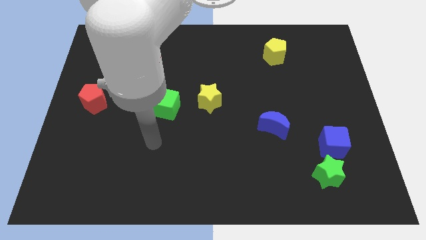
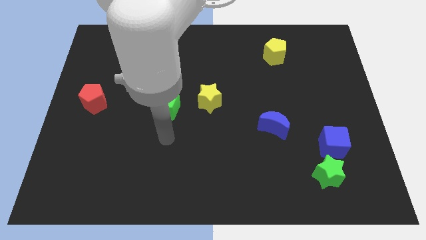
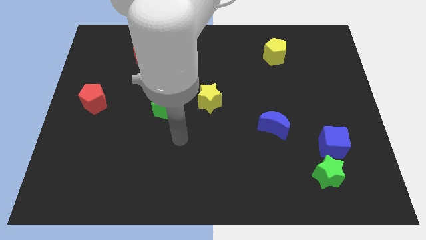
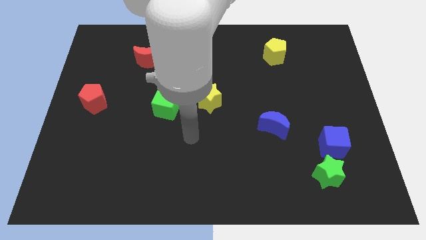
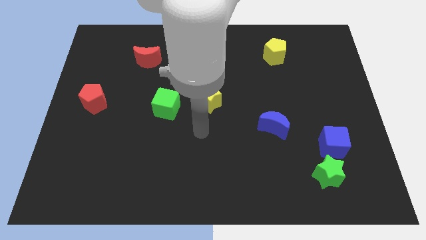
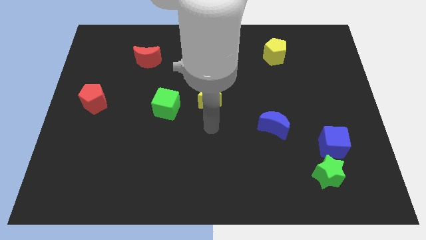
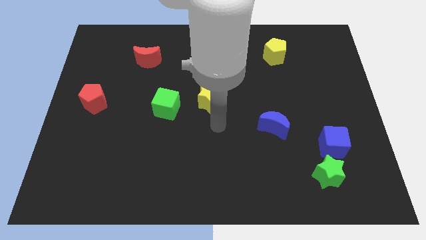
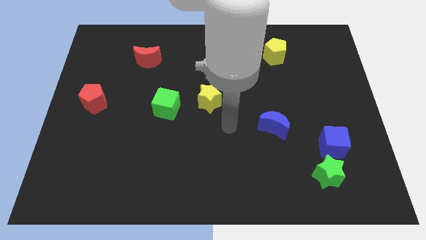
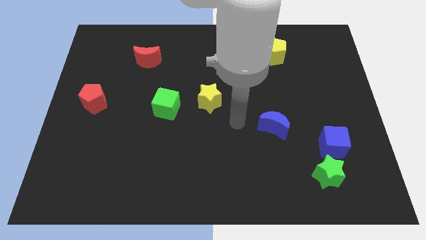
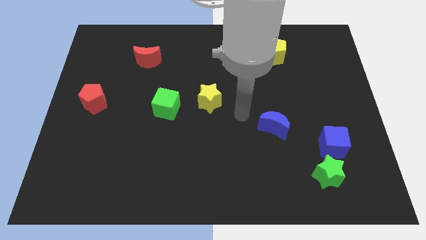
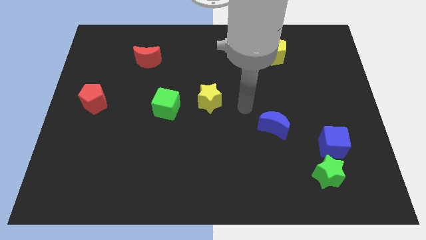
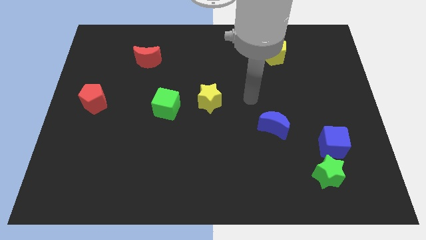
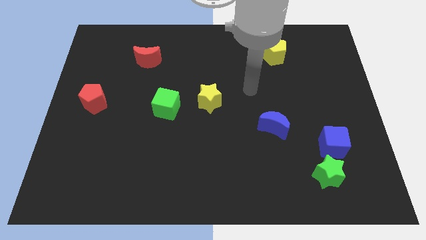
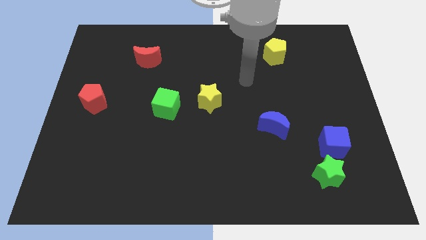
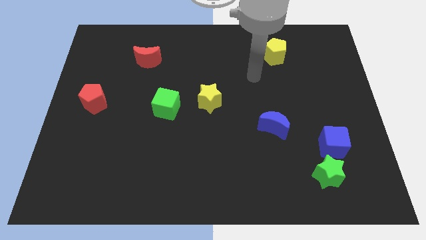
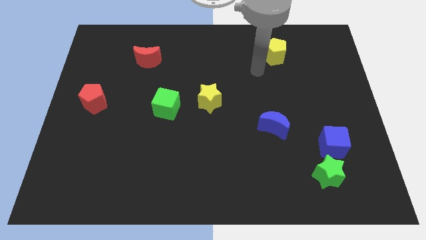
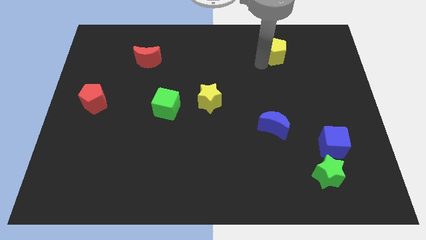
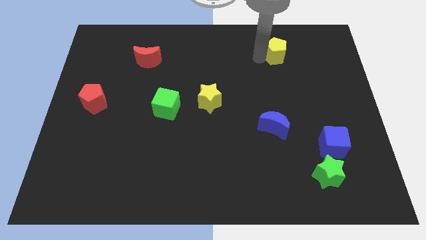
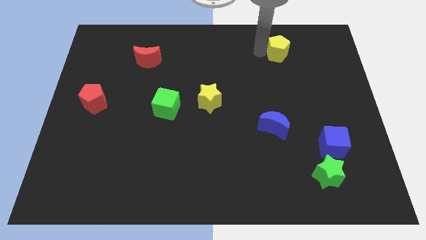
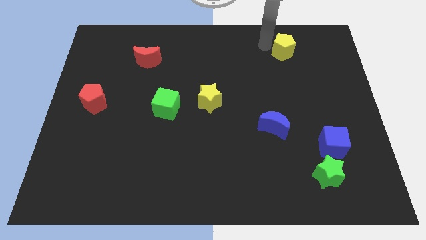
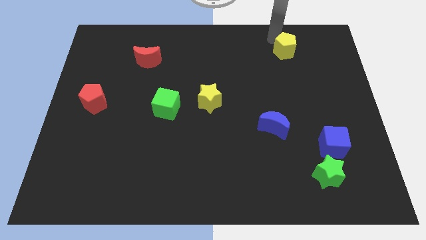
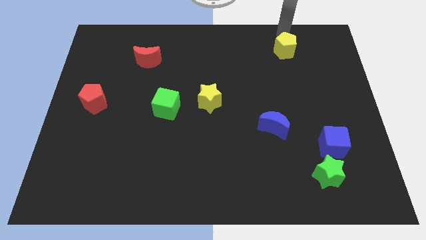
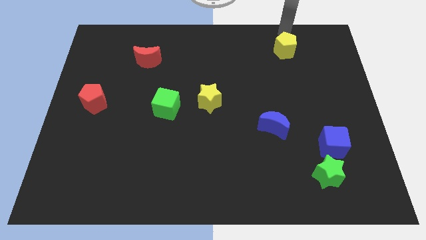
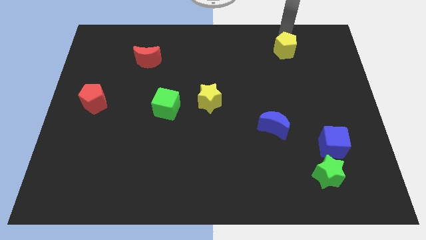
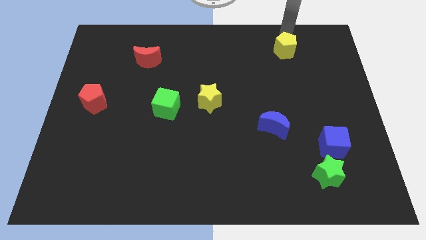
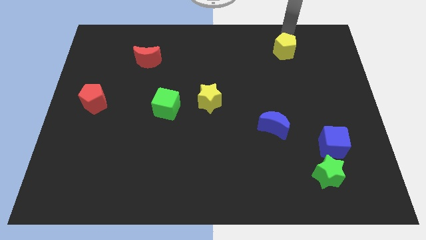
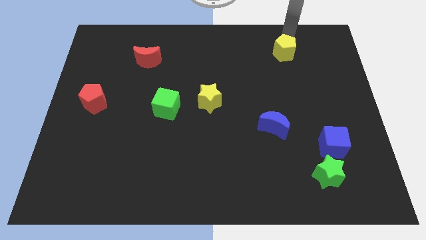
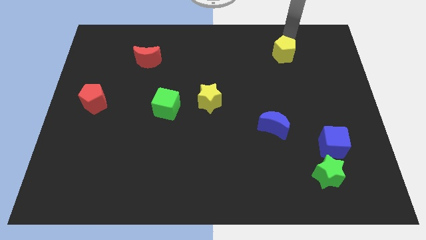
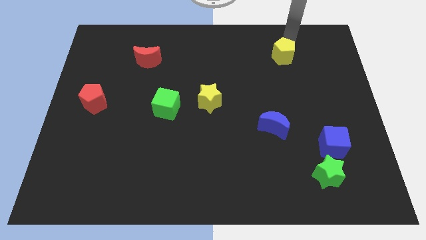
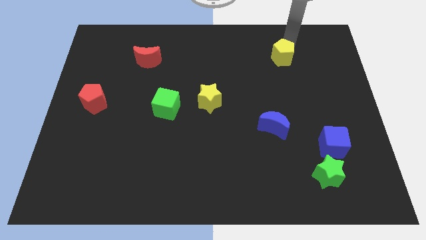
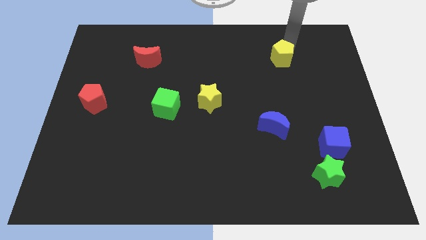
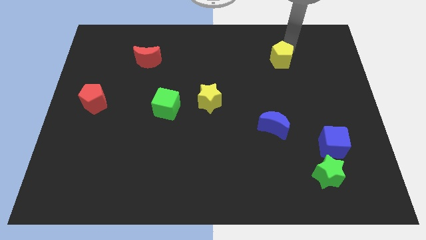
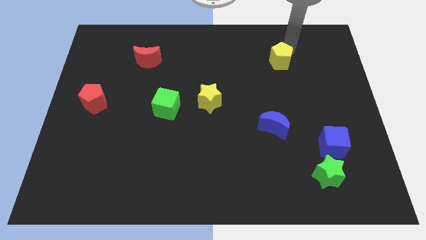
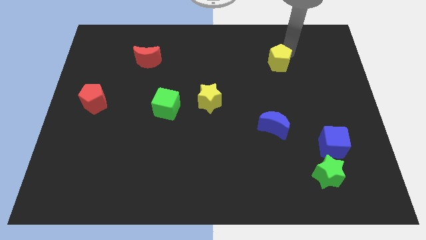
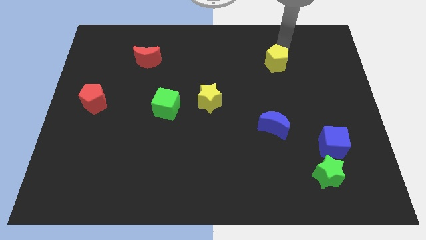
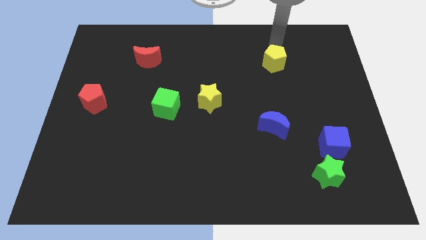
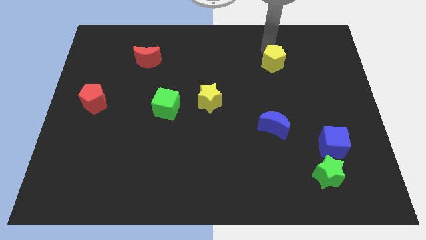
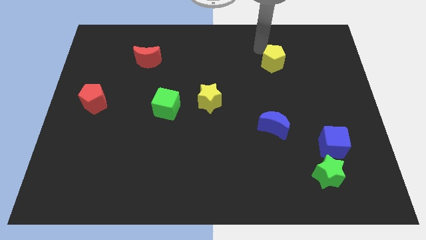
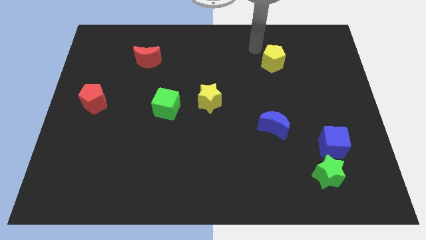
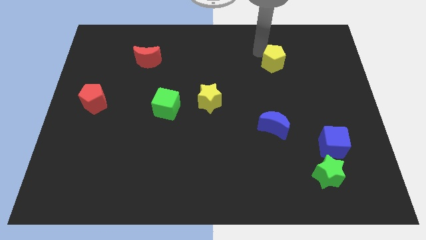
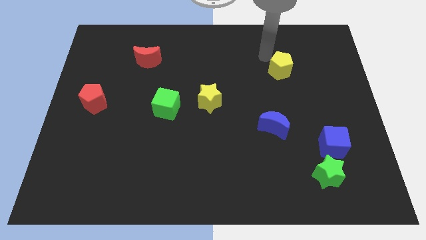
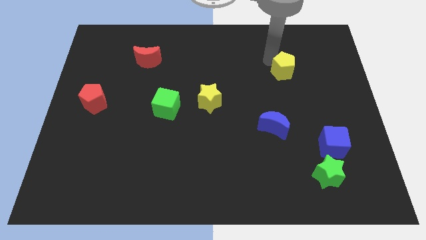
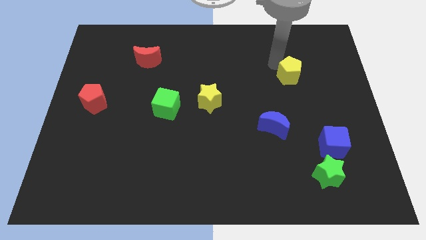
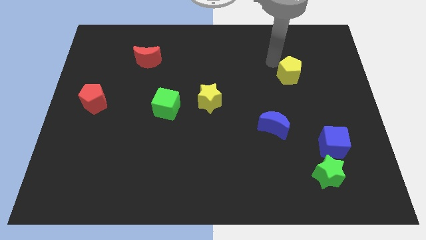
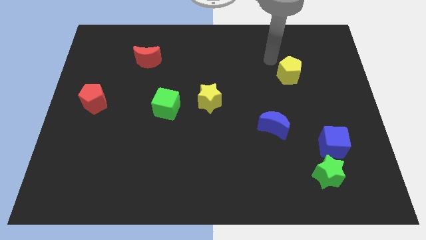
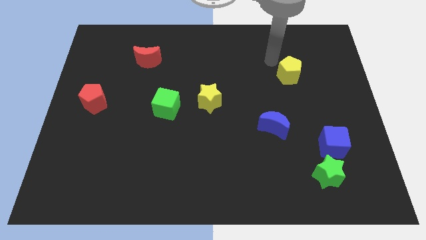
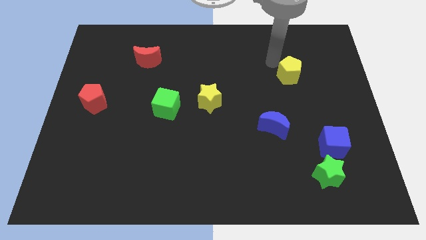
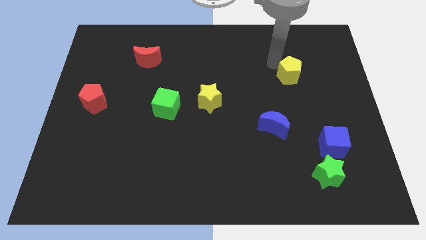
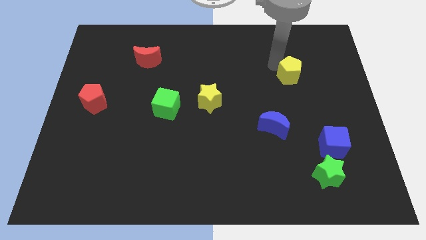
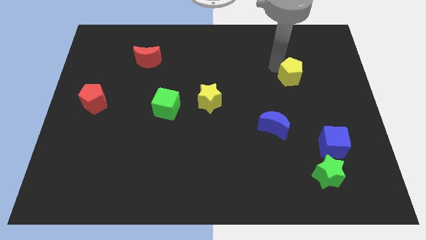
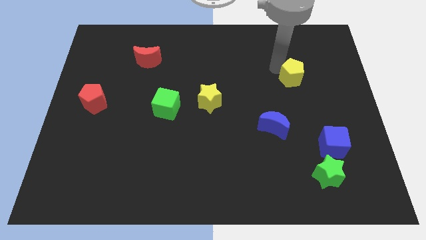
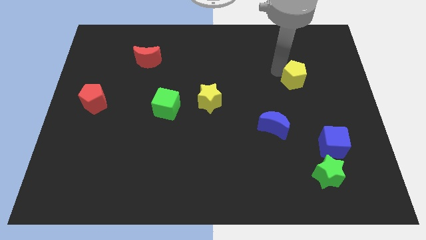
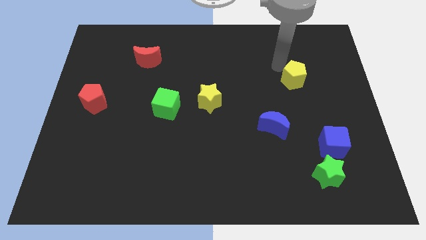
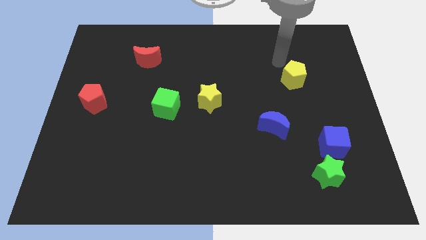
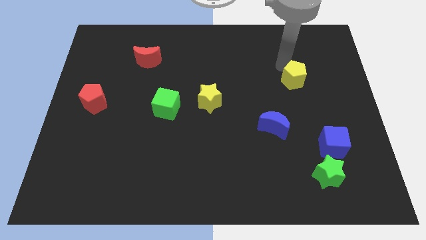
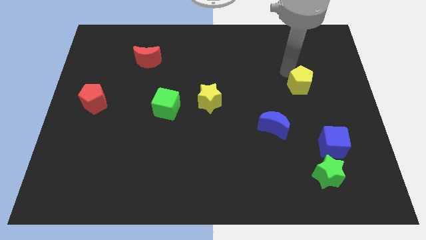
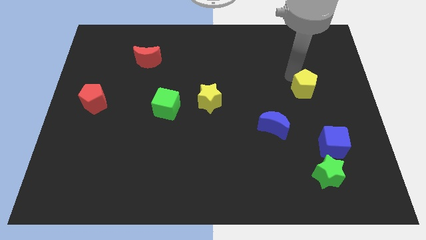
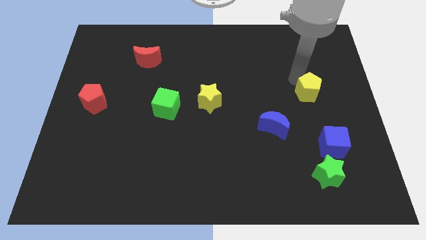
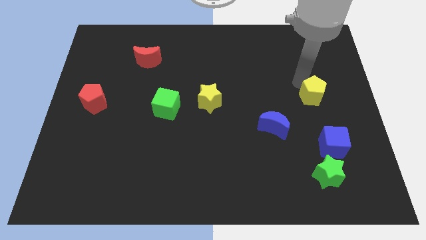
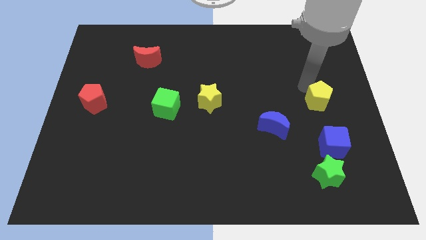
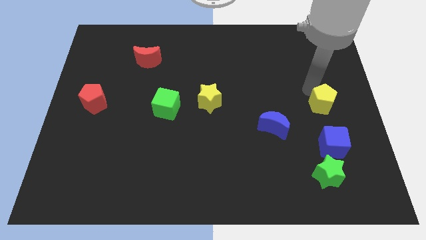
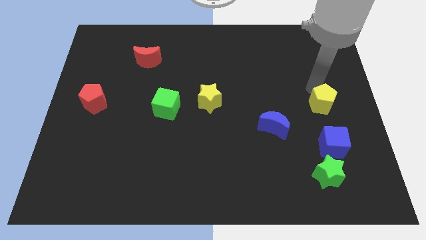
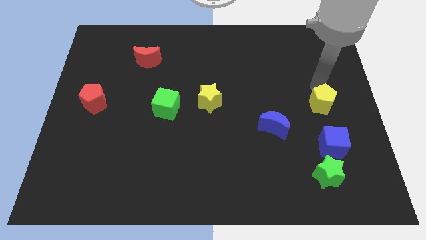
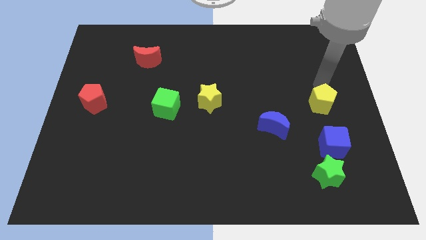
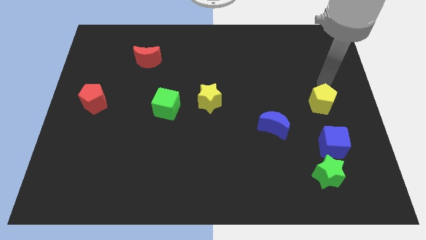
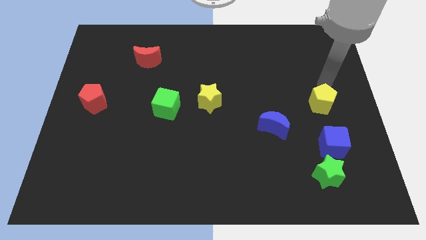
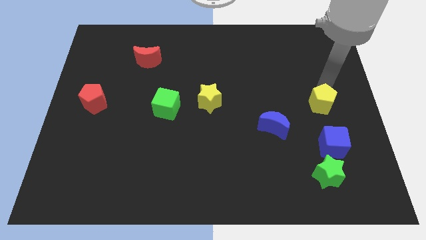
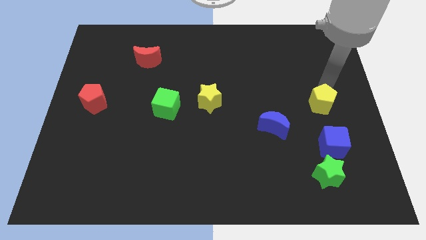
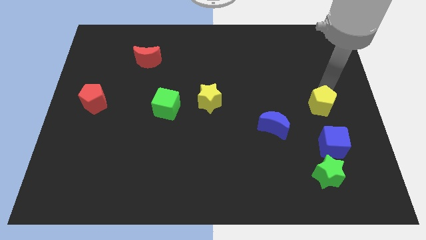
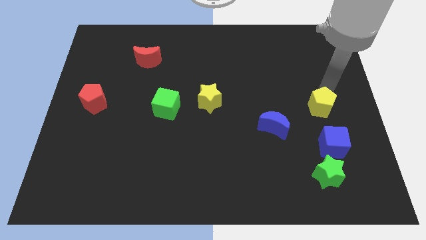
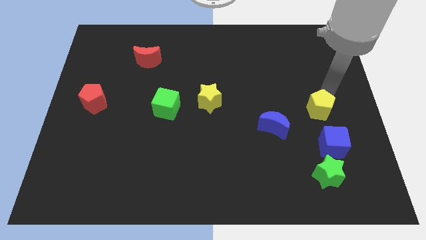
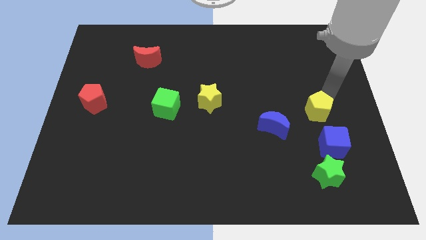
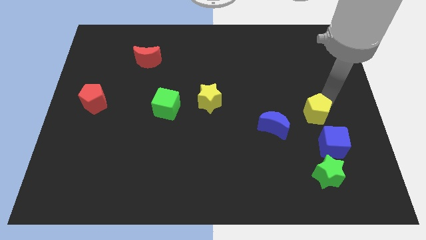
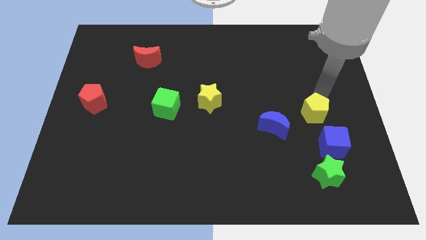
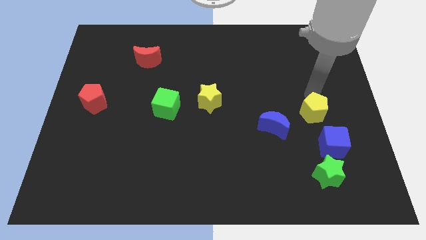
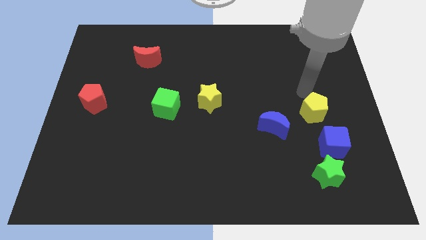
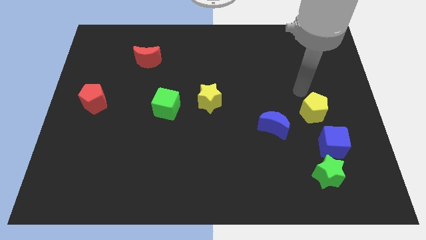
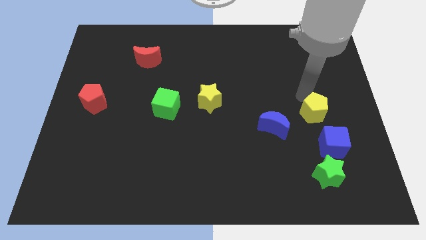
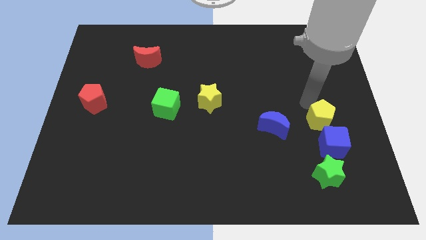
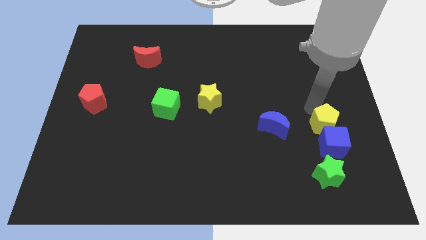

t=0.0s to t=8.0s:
slide the yellow pentagon close to the blue cube

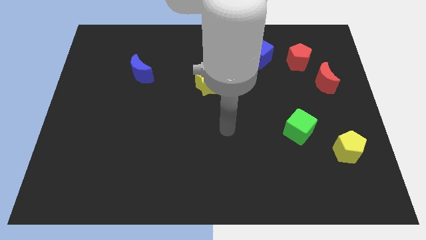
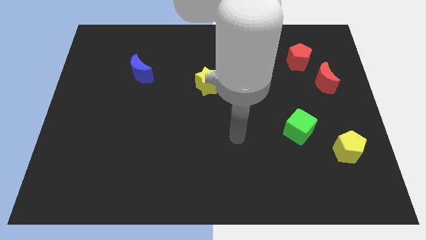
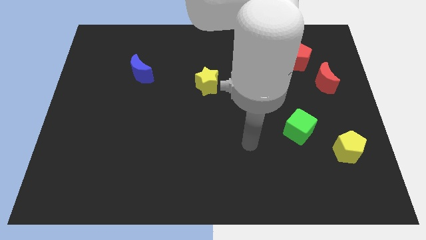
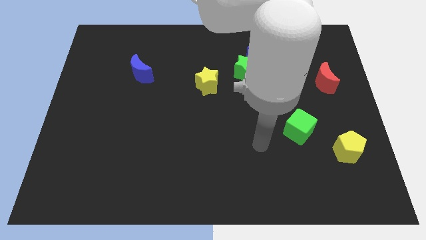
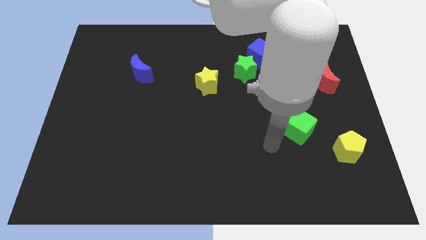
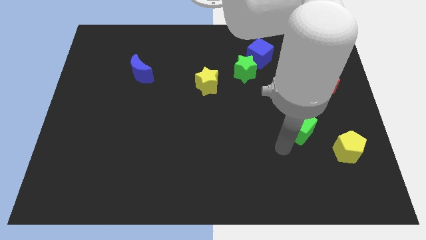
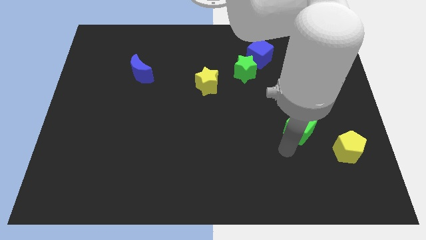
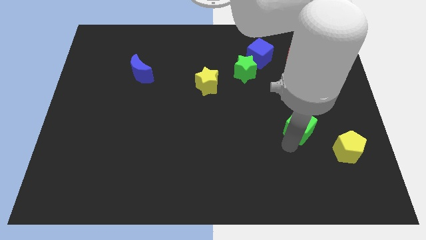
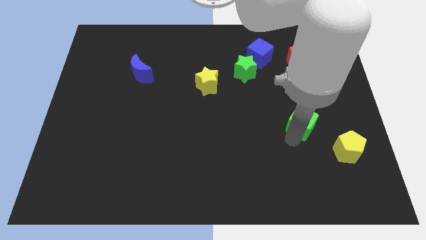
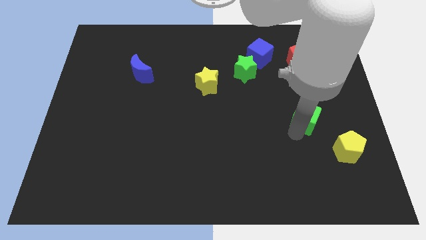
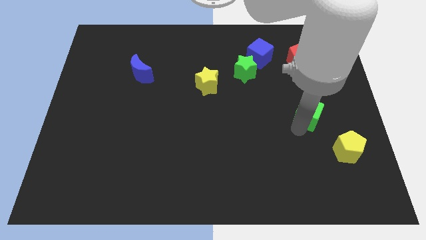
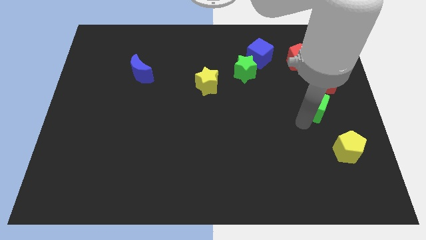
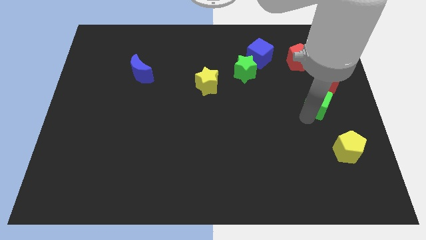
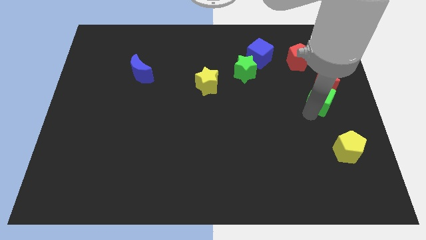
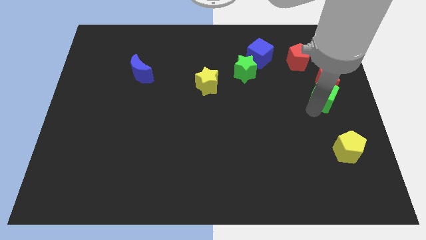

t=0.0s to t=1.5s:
push the green cube towards the red moon
